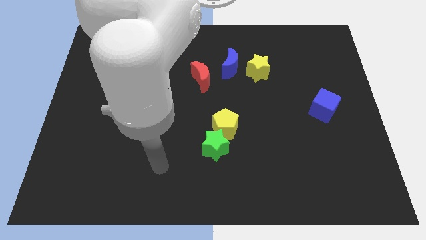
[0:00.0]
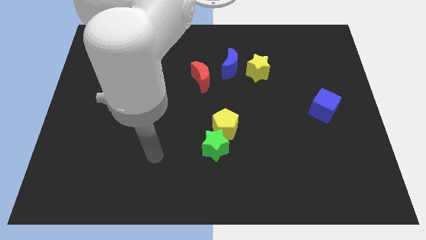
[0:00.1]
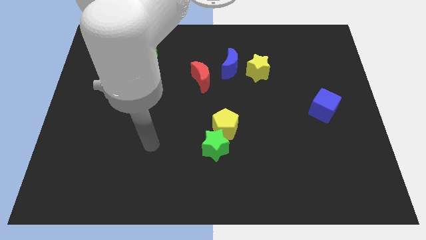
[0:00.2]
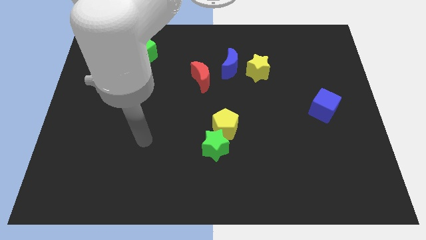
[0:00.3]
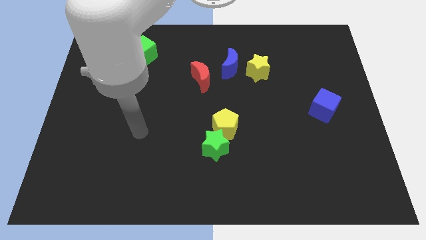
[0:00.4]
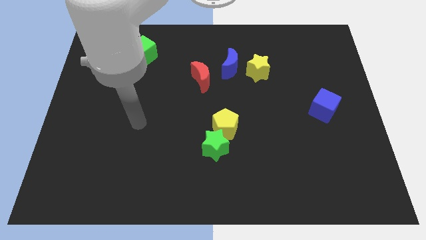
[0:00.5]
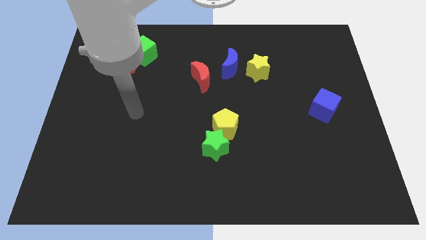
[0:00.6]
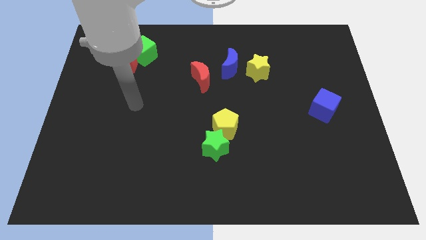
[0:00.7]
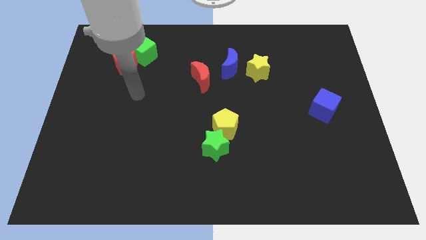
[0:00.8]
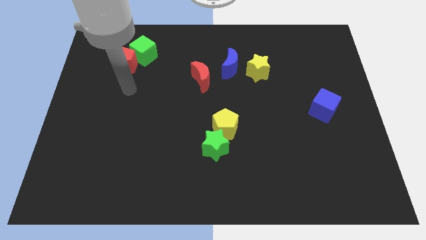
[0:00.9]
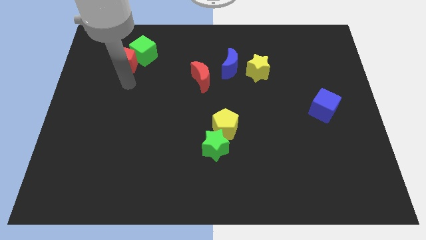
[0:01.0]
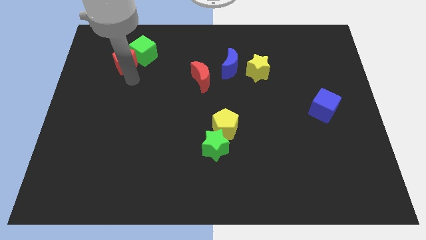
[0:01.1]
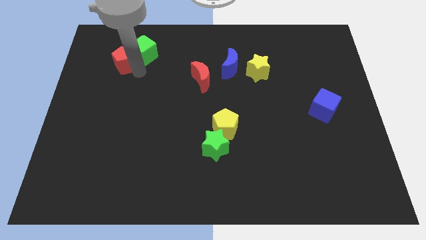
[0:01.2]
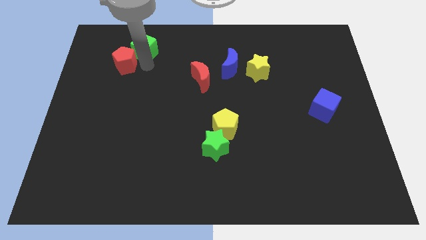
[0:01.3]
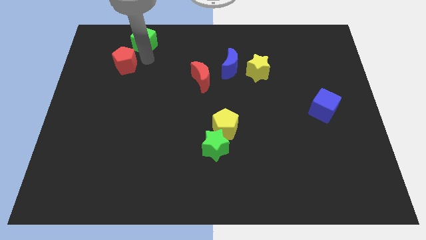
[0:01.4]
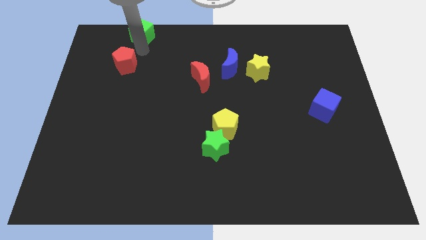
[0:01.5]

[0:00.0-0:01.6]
separate the red pentagon from the green cube

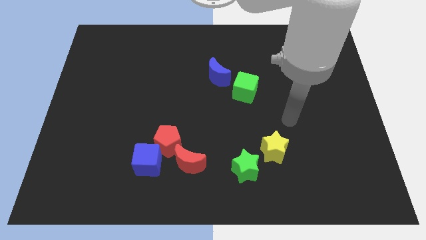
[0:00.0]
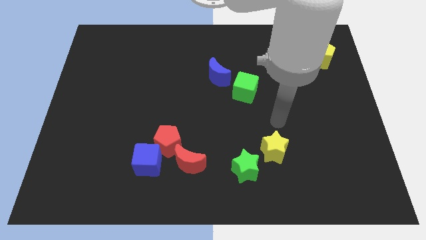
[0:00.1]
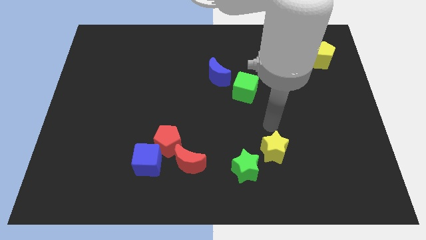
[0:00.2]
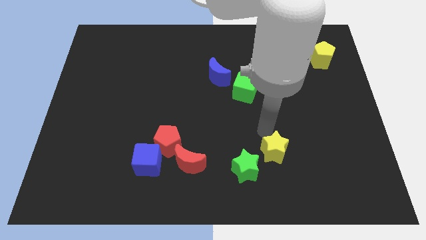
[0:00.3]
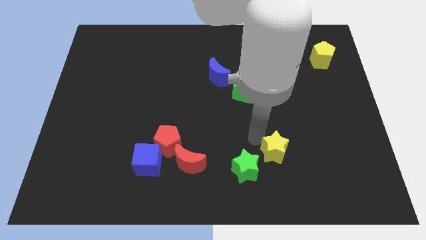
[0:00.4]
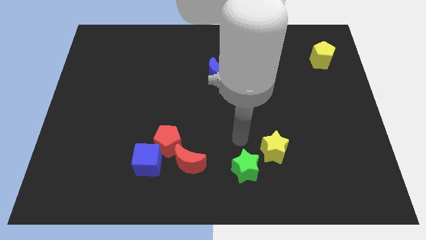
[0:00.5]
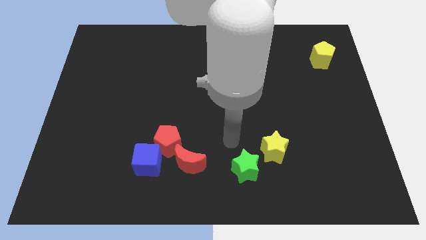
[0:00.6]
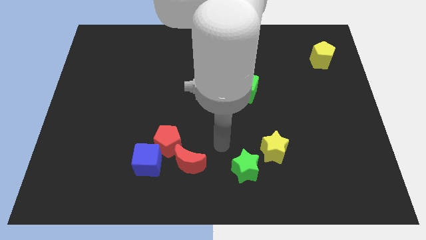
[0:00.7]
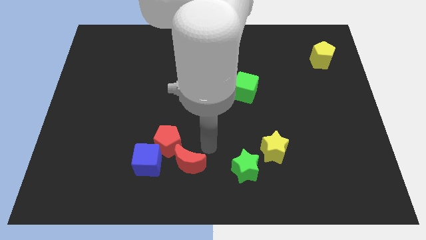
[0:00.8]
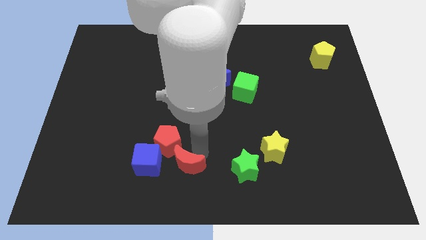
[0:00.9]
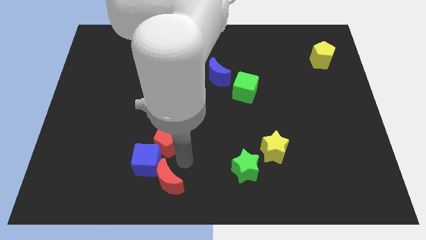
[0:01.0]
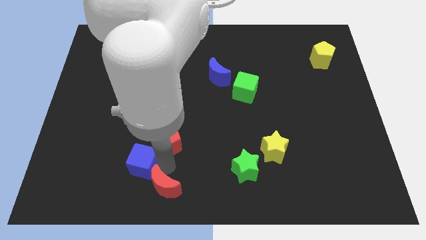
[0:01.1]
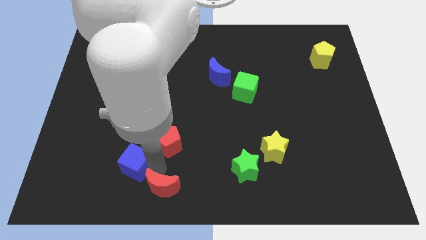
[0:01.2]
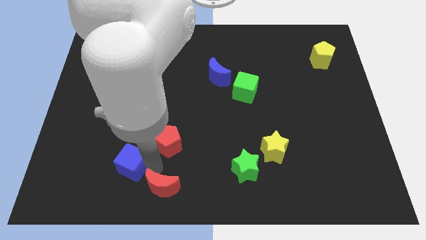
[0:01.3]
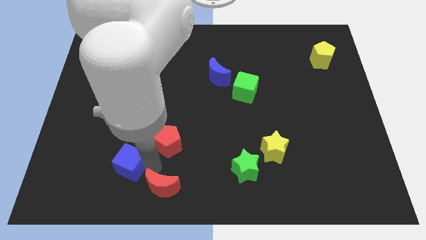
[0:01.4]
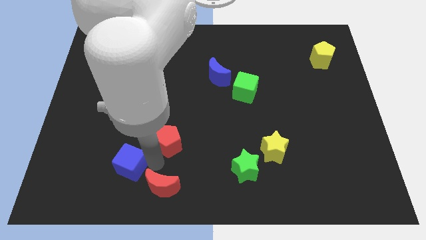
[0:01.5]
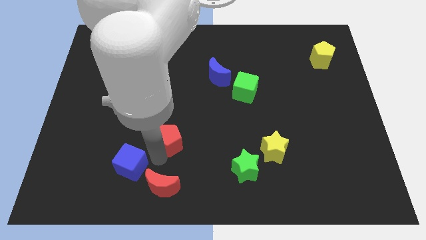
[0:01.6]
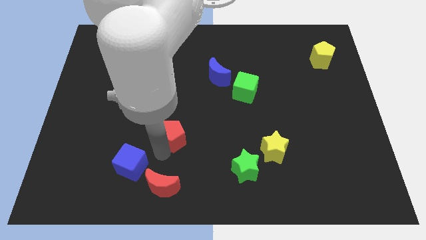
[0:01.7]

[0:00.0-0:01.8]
move the red pentagon away from the blue cube and red moon

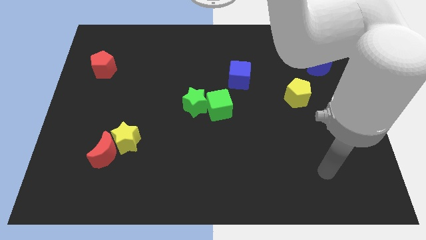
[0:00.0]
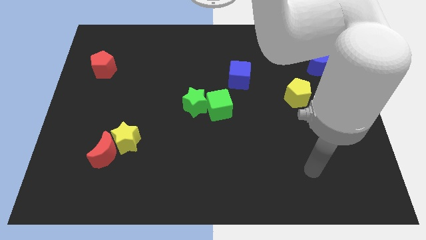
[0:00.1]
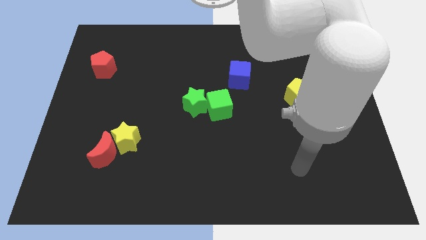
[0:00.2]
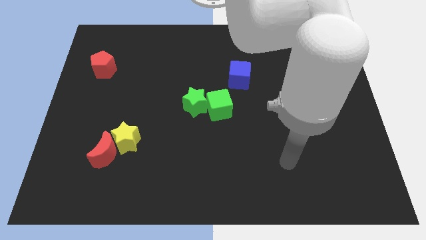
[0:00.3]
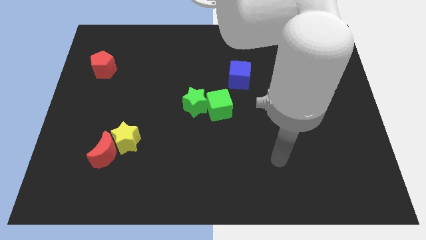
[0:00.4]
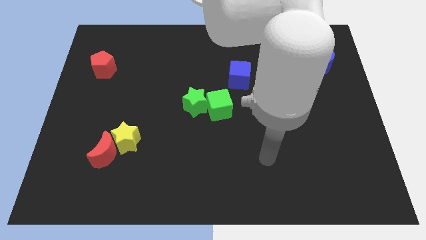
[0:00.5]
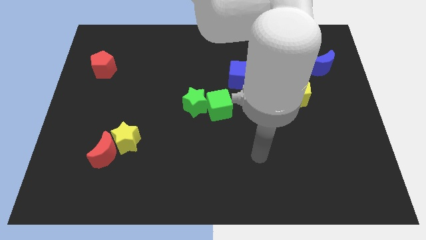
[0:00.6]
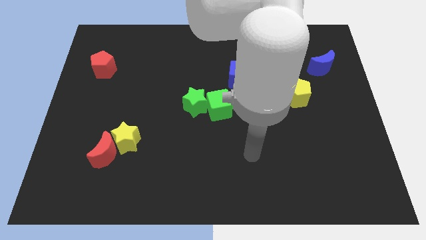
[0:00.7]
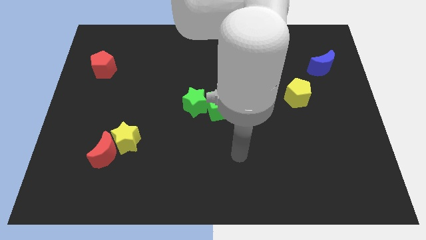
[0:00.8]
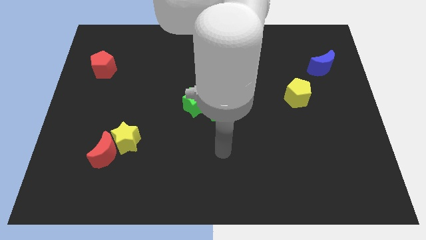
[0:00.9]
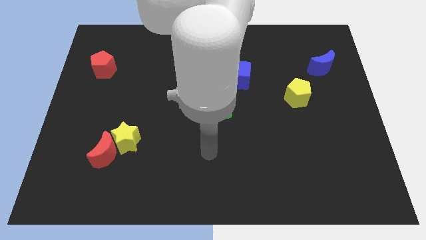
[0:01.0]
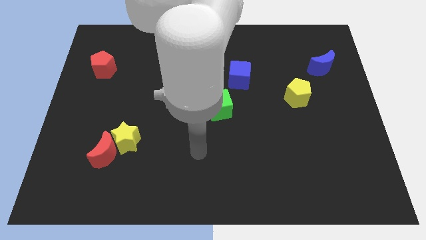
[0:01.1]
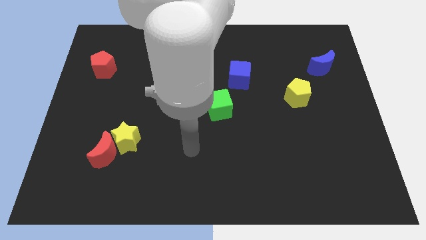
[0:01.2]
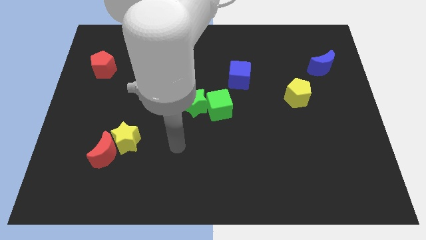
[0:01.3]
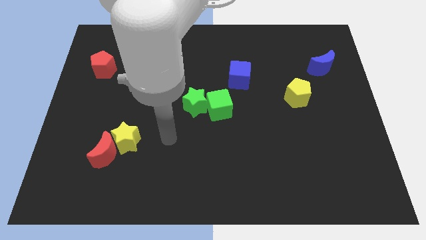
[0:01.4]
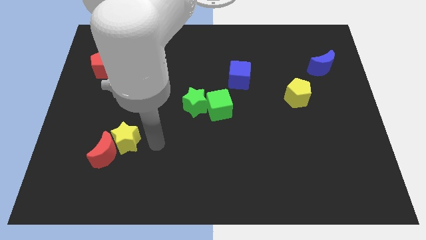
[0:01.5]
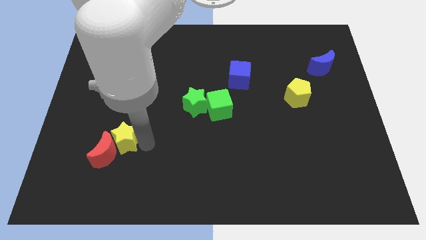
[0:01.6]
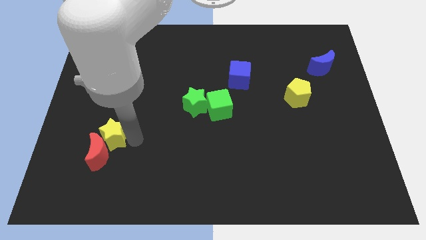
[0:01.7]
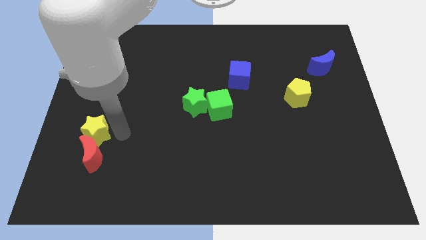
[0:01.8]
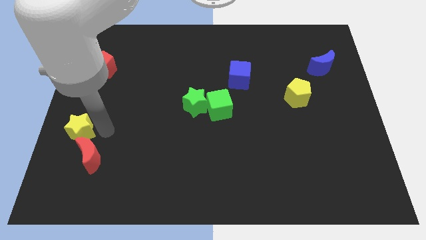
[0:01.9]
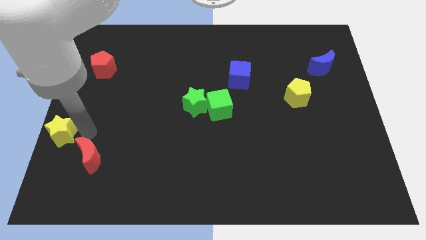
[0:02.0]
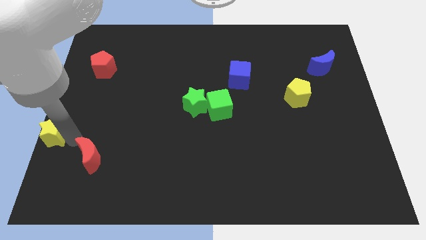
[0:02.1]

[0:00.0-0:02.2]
move the red moon away from the yellow star

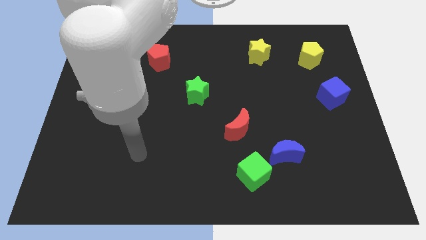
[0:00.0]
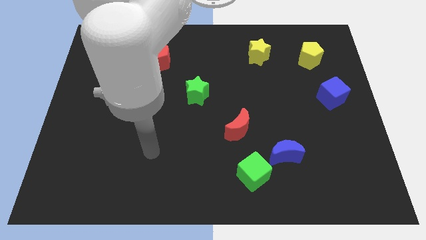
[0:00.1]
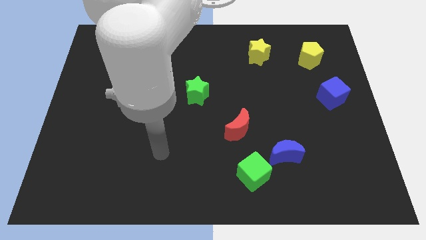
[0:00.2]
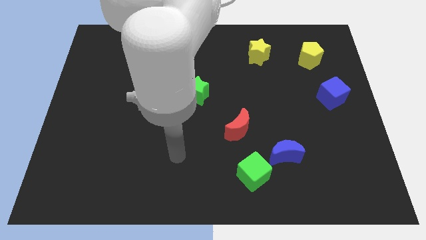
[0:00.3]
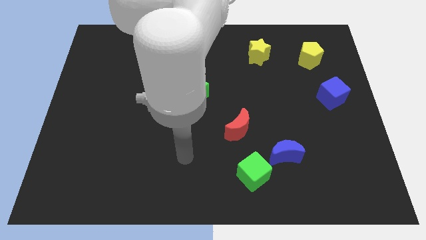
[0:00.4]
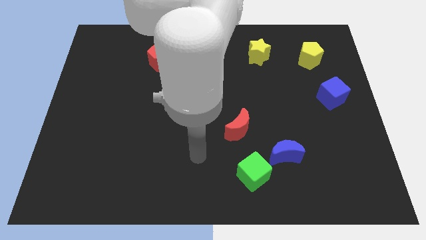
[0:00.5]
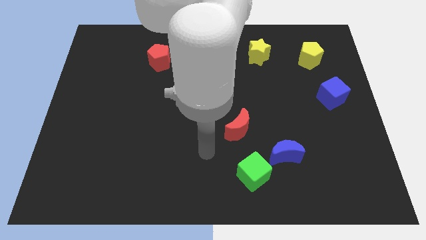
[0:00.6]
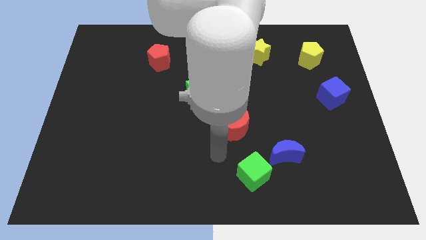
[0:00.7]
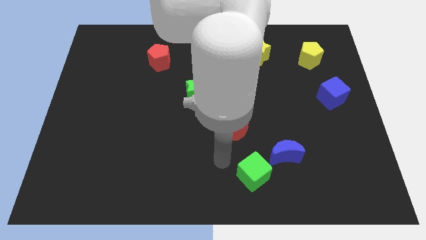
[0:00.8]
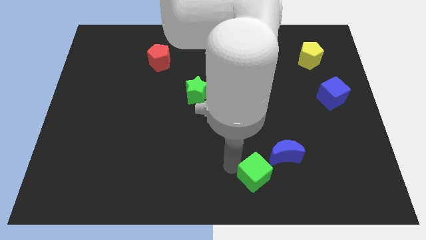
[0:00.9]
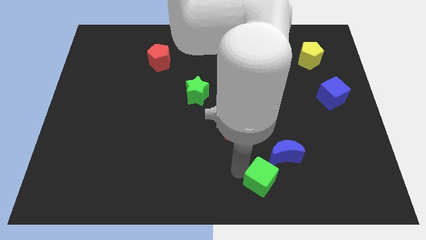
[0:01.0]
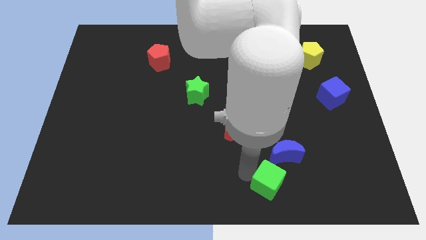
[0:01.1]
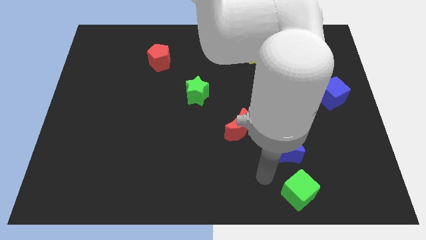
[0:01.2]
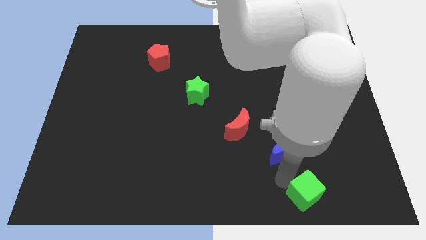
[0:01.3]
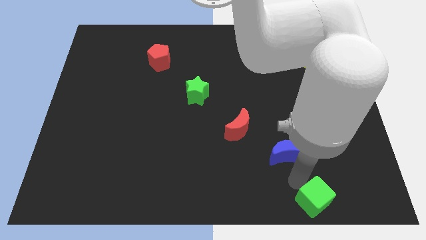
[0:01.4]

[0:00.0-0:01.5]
separate the blue moon from the green cube

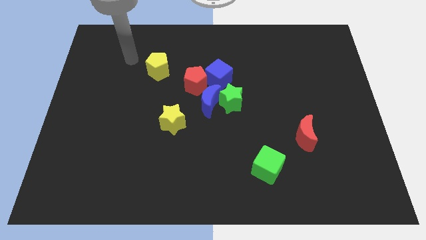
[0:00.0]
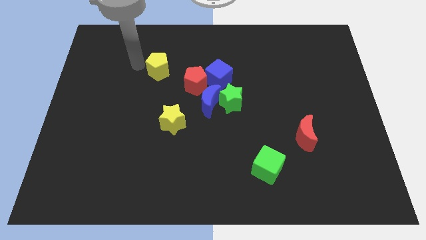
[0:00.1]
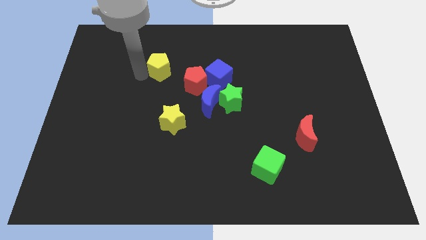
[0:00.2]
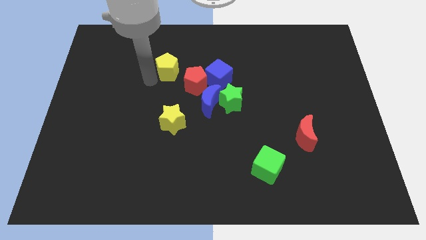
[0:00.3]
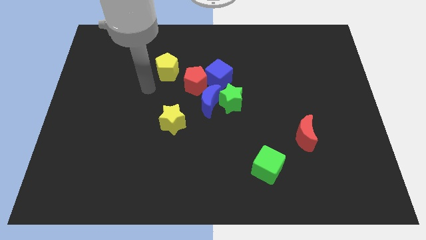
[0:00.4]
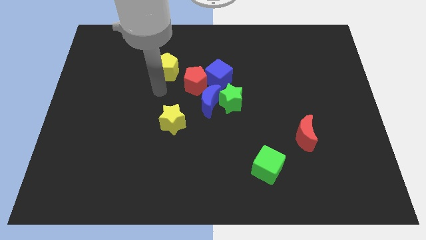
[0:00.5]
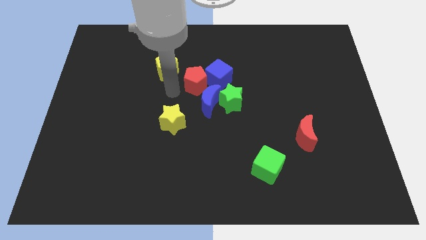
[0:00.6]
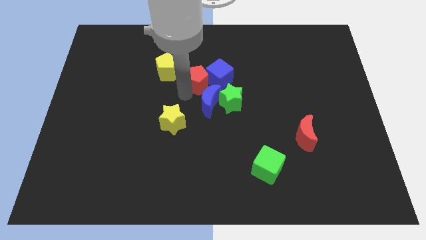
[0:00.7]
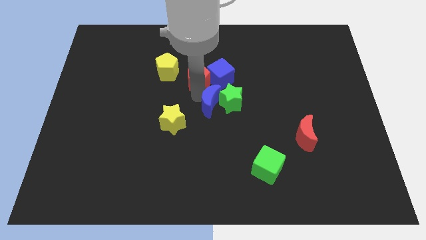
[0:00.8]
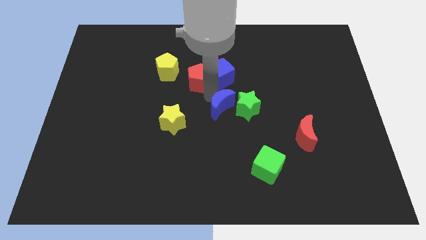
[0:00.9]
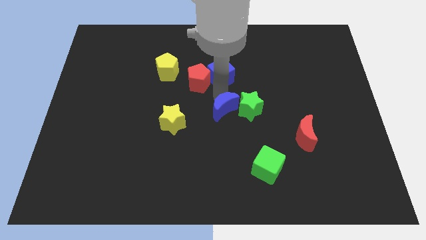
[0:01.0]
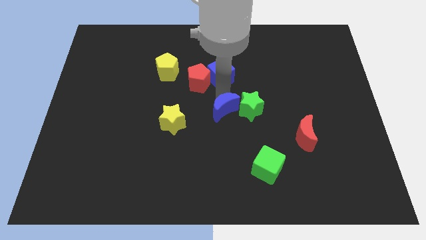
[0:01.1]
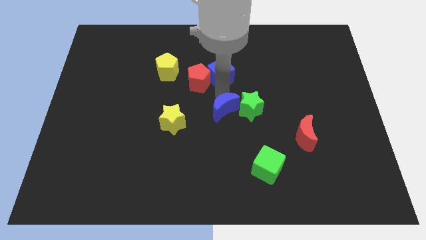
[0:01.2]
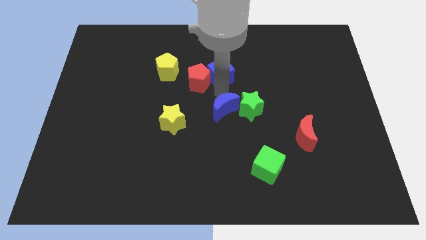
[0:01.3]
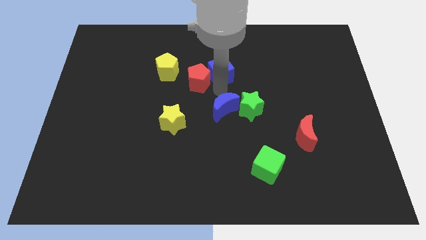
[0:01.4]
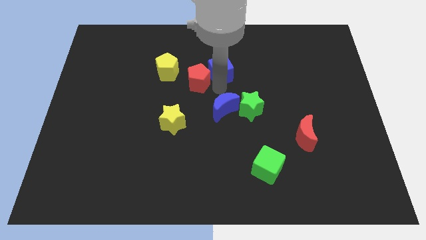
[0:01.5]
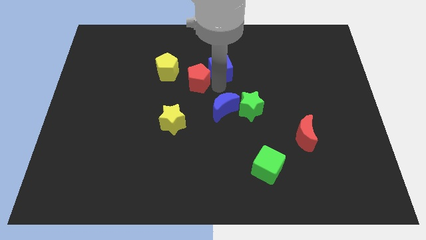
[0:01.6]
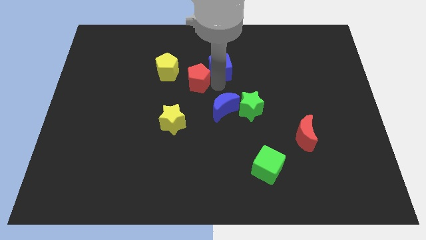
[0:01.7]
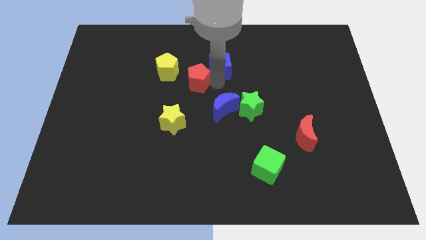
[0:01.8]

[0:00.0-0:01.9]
move the blue cube away from the red pentagon, green star, and blue moon

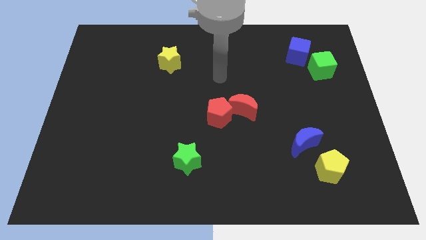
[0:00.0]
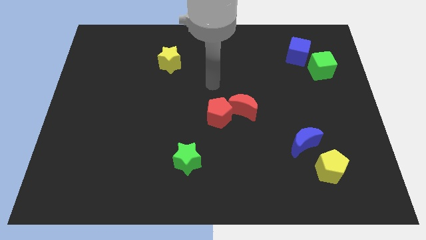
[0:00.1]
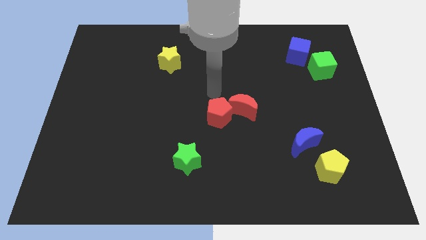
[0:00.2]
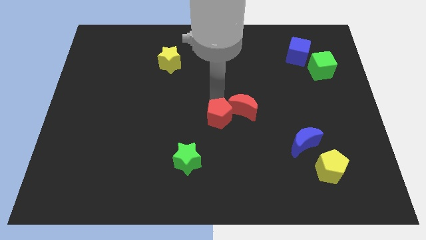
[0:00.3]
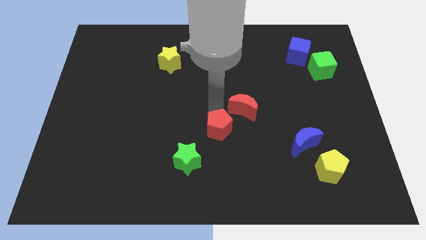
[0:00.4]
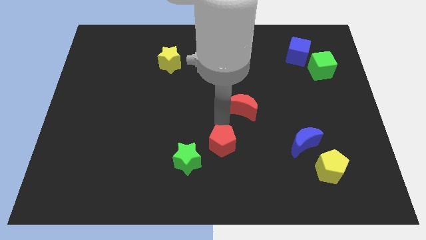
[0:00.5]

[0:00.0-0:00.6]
move the red moon away from the red pentagon
